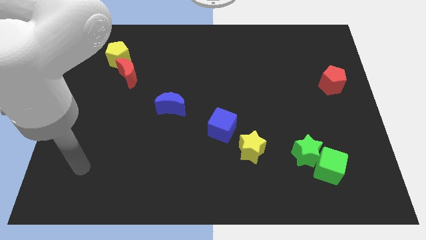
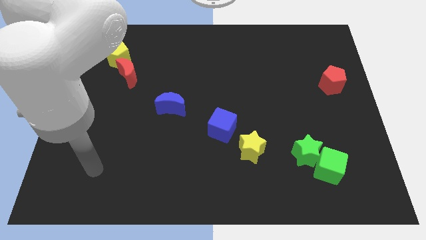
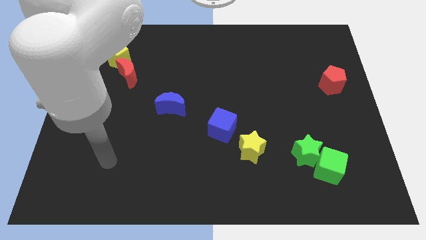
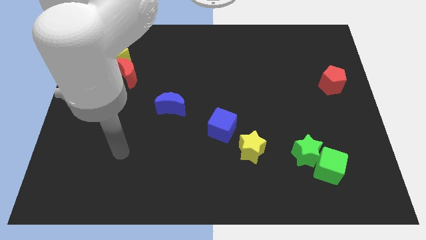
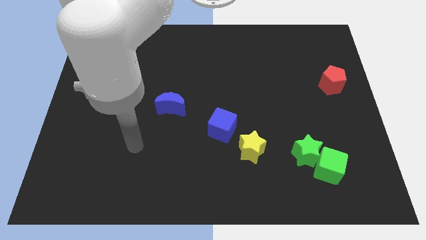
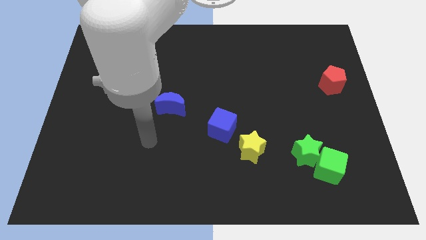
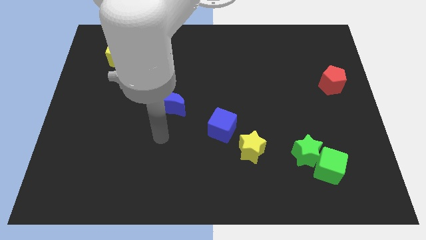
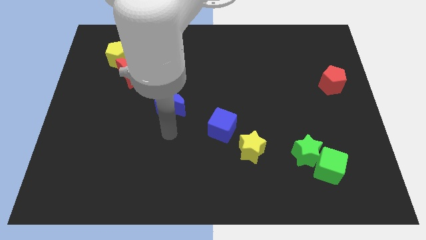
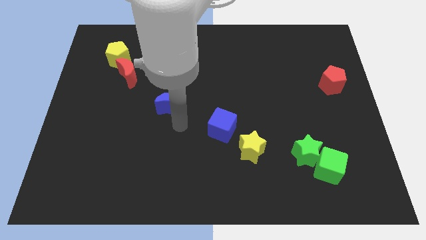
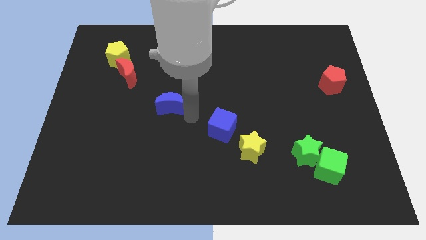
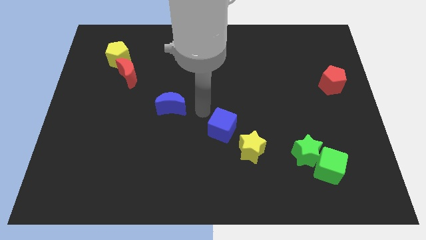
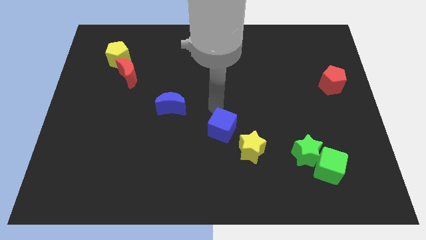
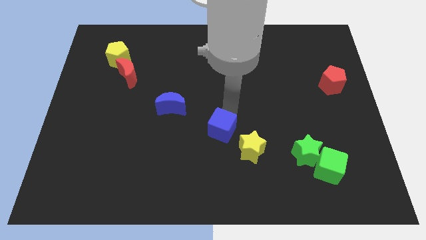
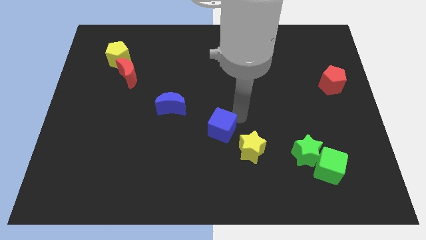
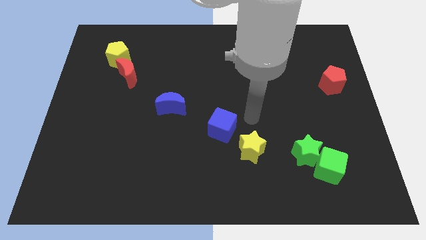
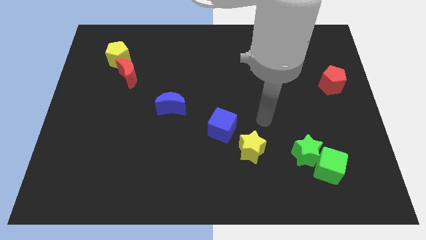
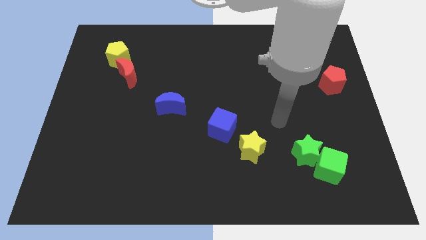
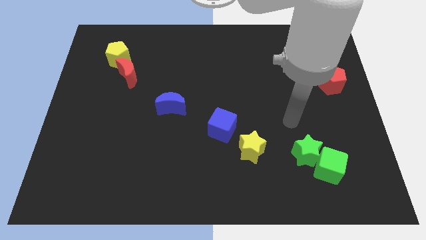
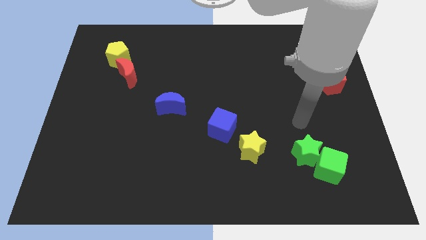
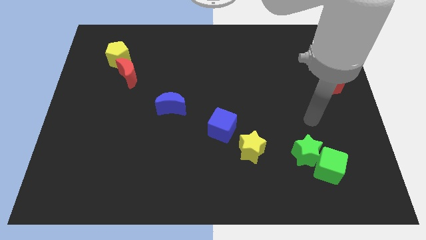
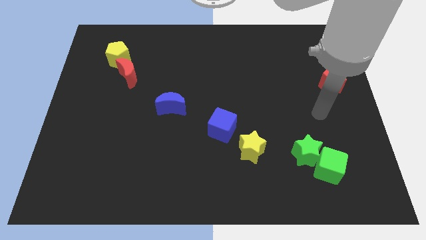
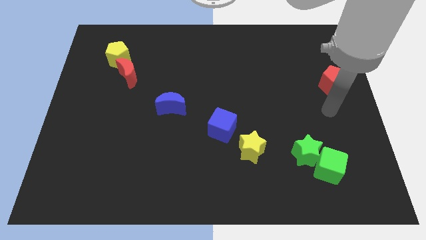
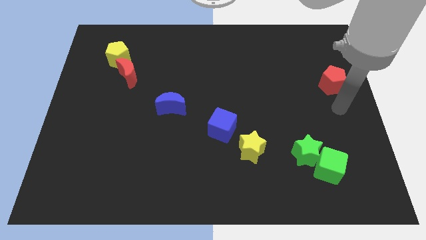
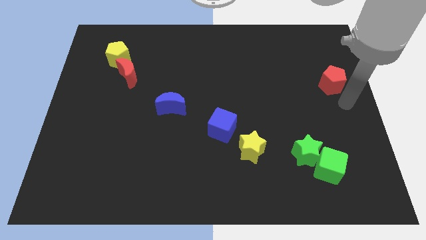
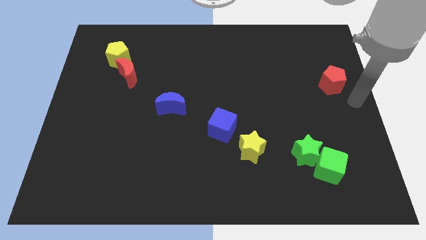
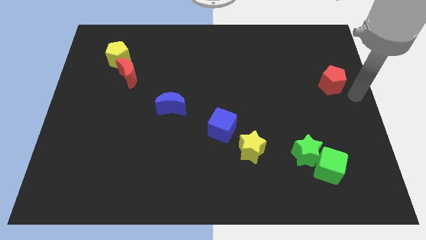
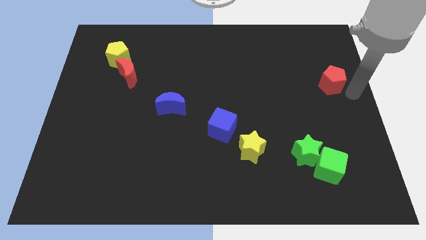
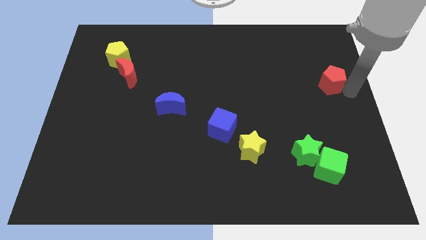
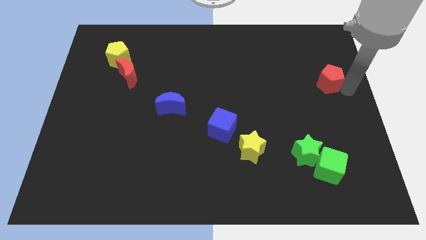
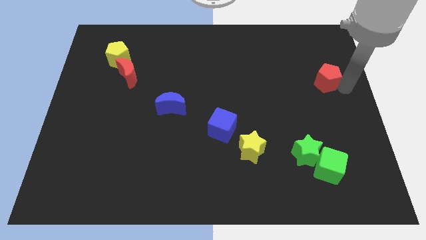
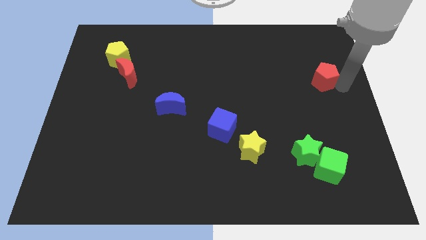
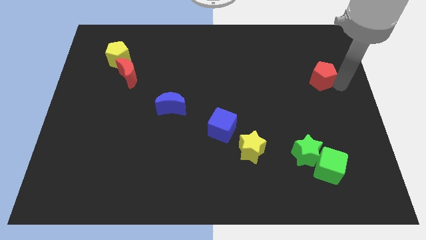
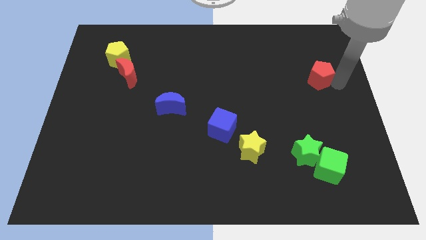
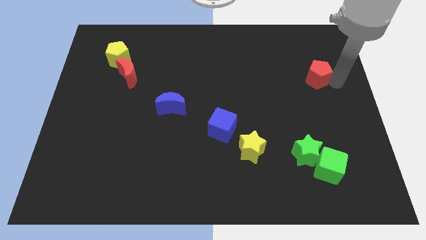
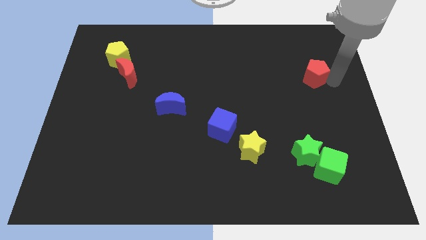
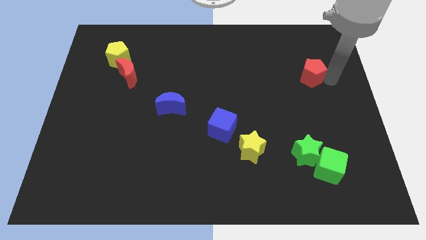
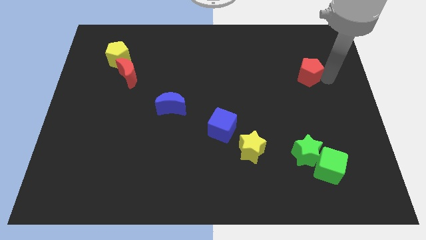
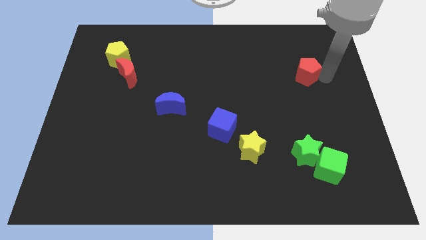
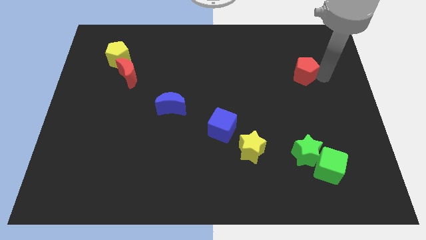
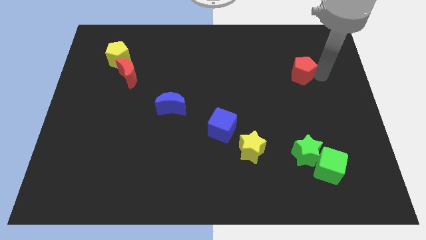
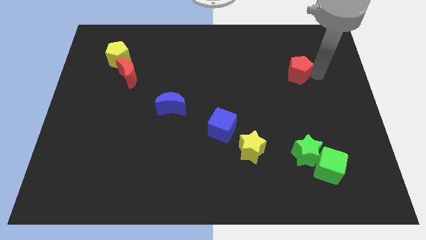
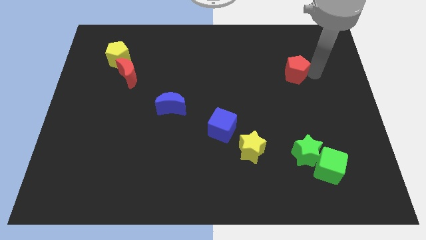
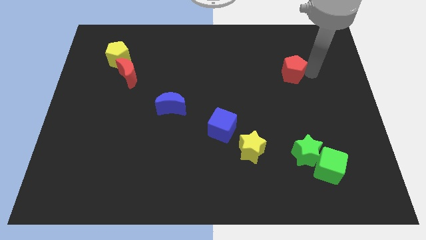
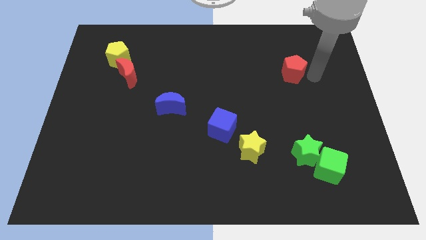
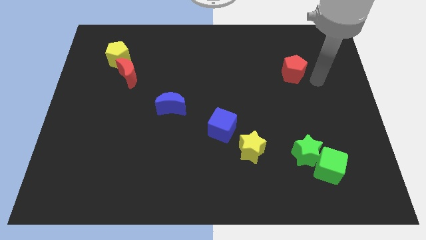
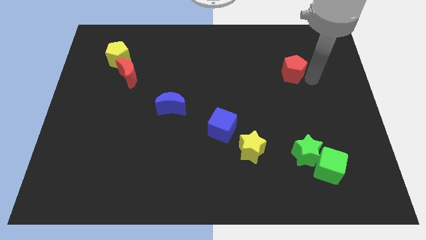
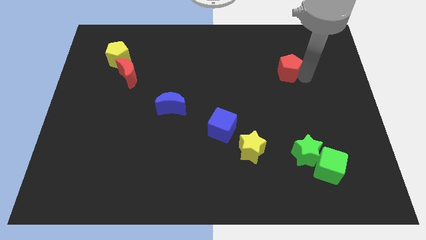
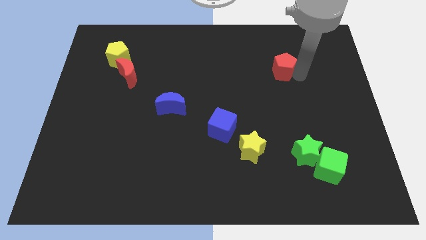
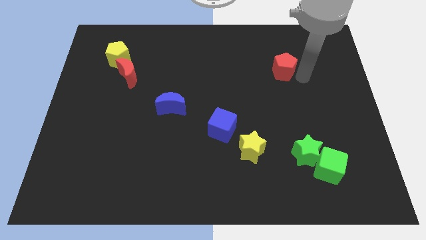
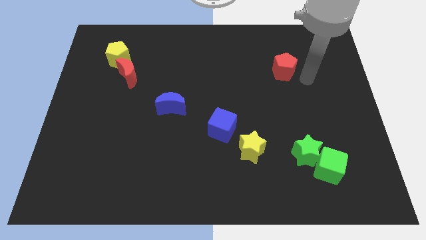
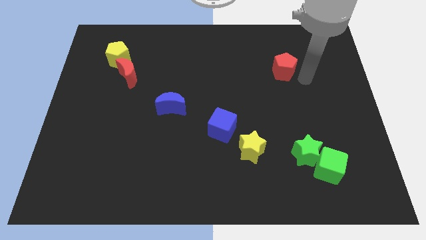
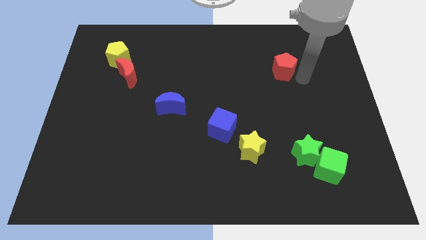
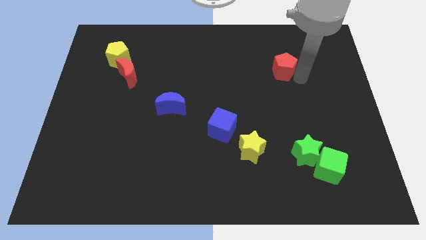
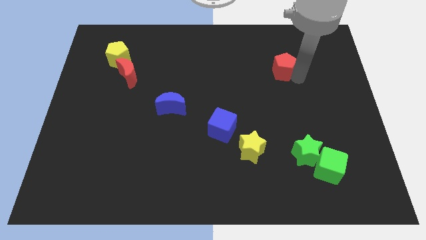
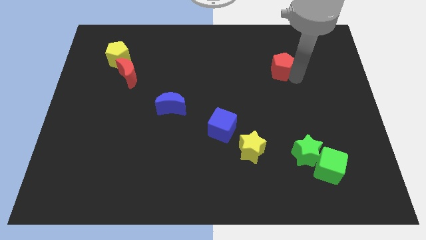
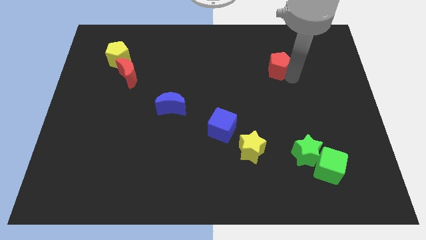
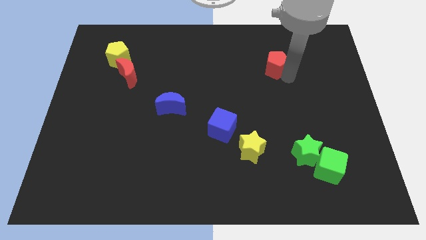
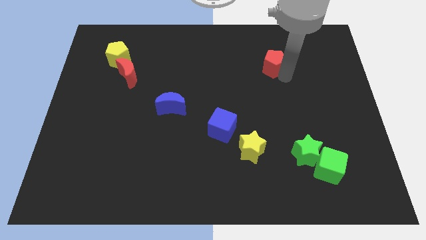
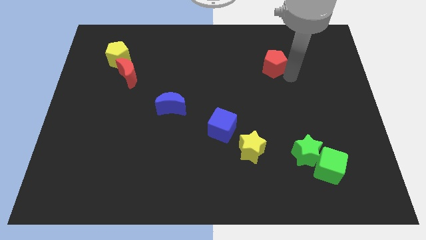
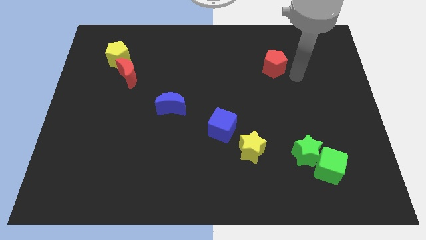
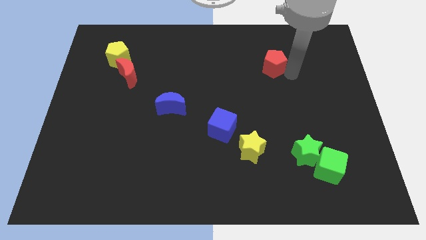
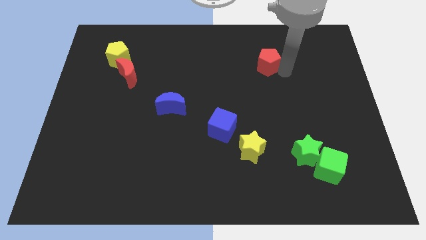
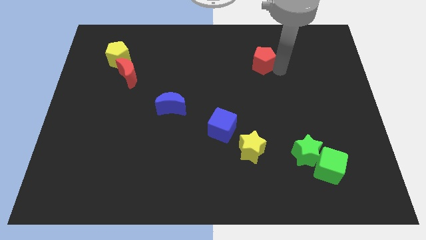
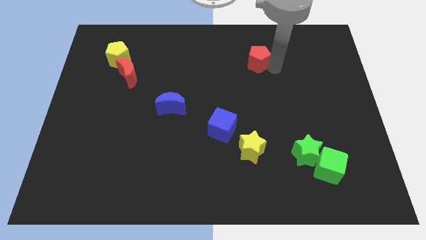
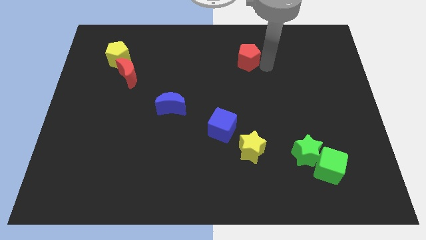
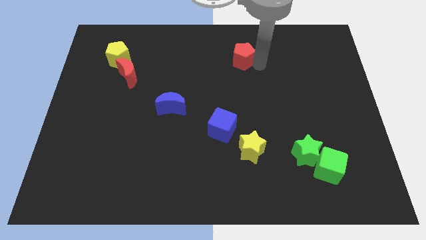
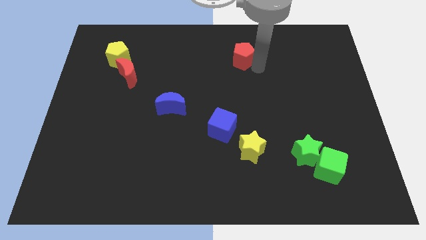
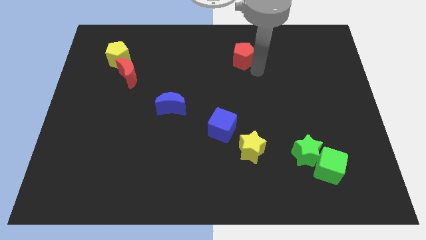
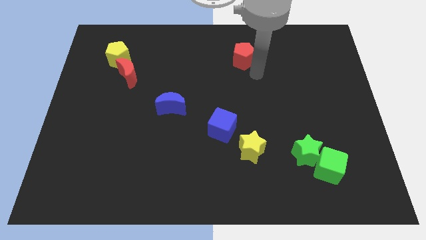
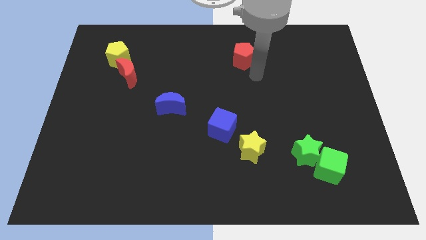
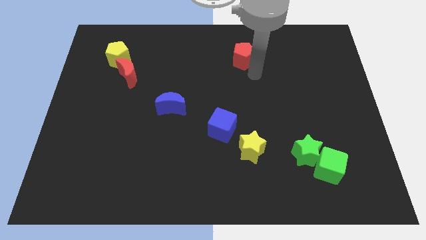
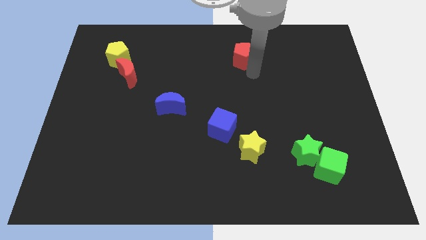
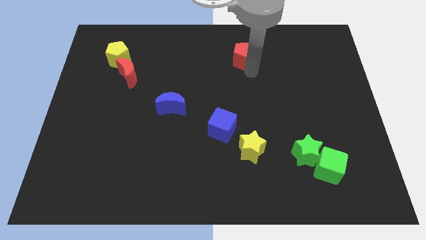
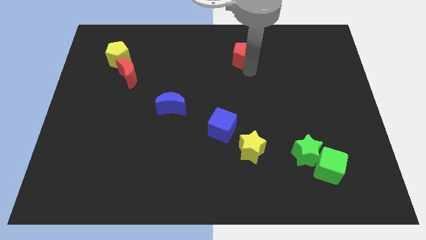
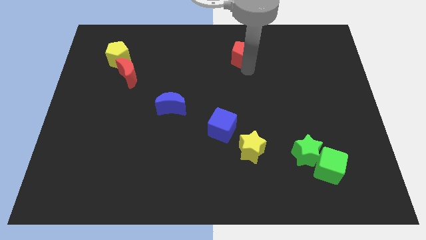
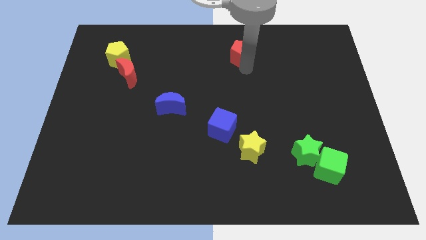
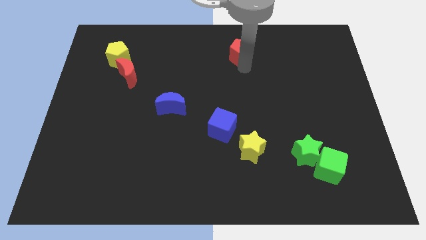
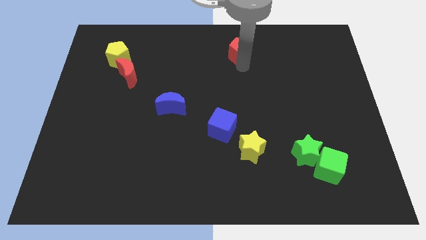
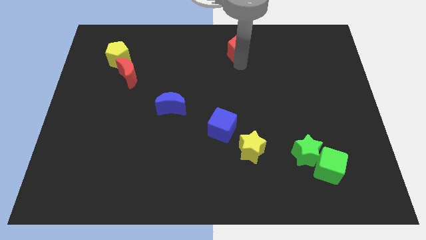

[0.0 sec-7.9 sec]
push the red pentagon to the towards your base
